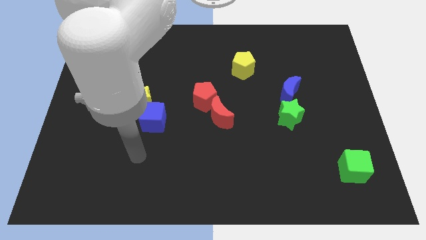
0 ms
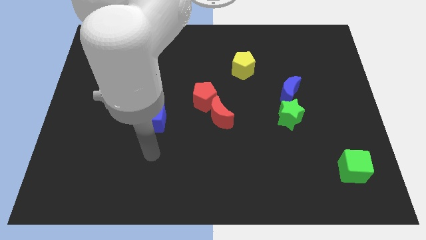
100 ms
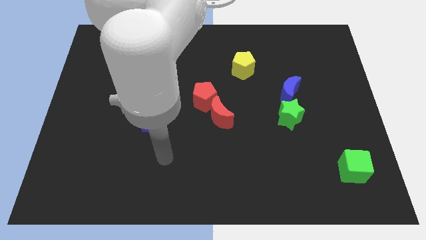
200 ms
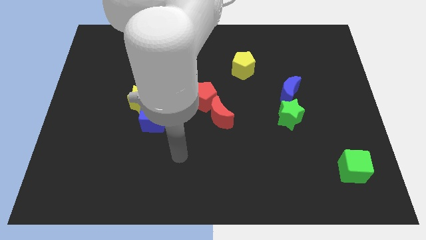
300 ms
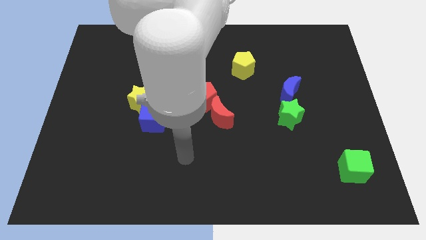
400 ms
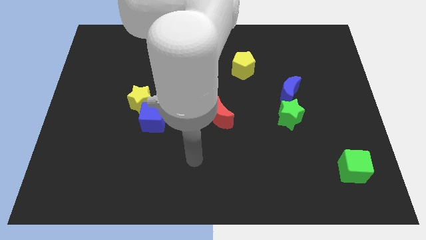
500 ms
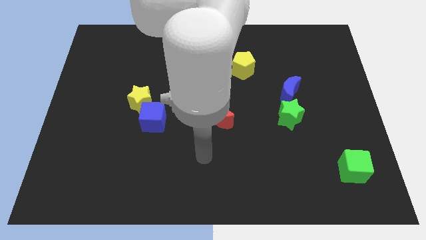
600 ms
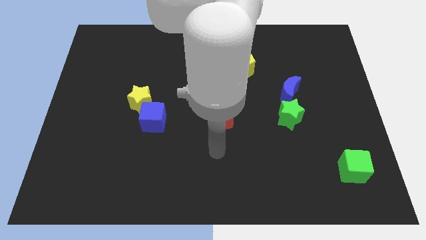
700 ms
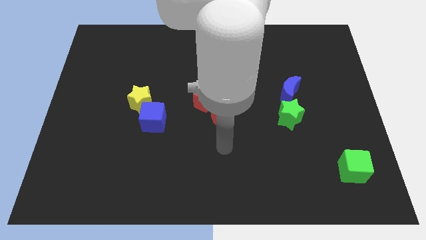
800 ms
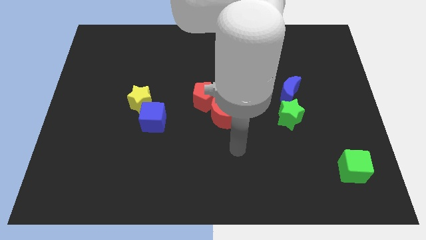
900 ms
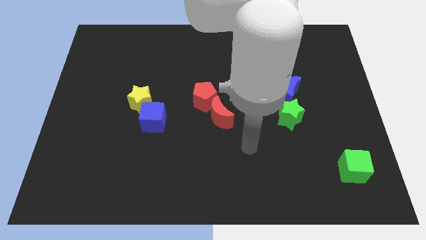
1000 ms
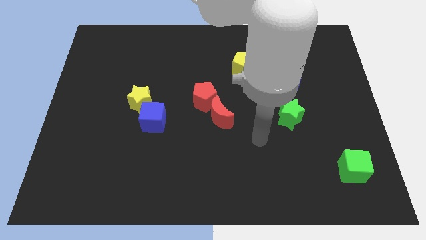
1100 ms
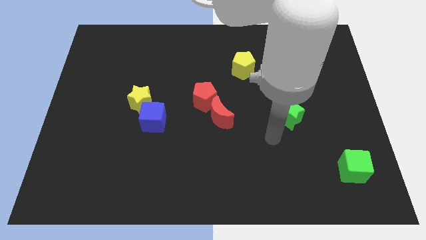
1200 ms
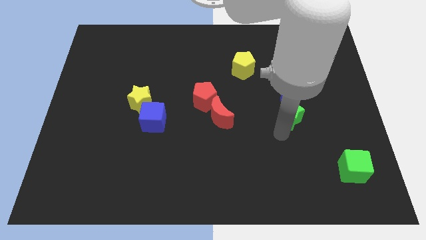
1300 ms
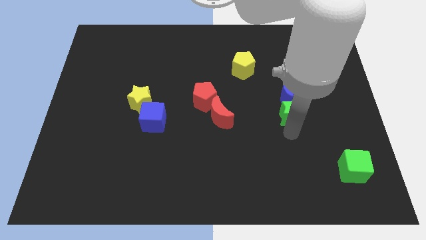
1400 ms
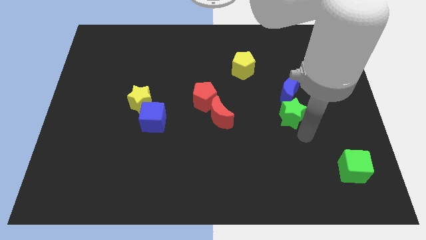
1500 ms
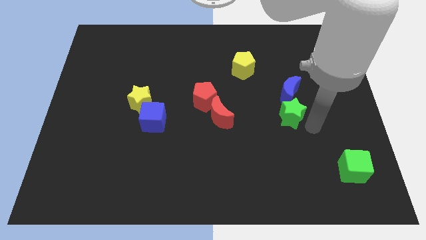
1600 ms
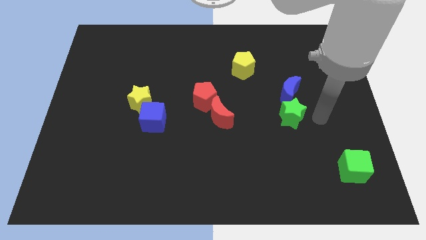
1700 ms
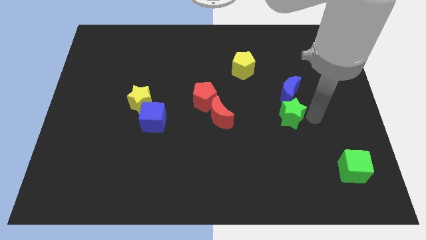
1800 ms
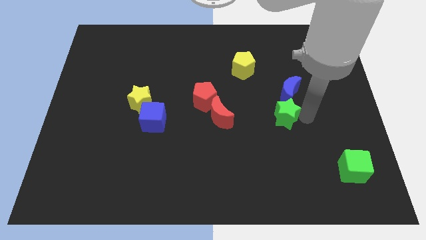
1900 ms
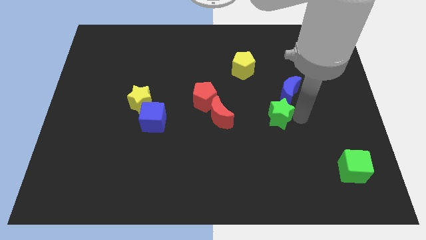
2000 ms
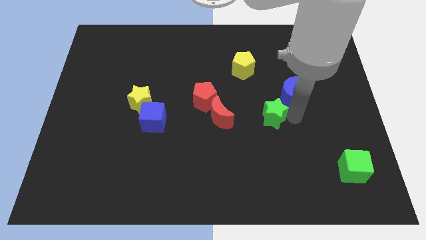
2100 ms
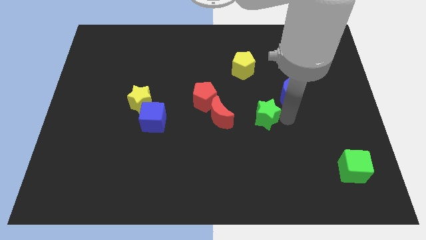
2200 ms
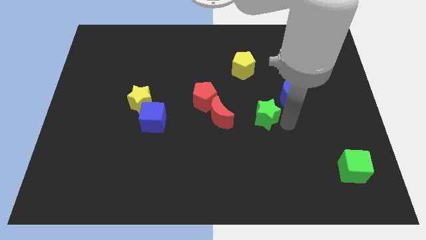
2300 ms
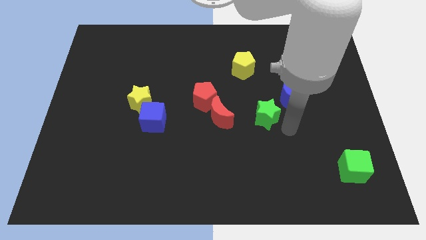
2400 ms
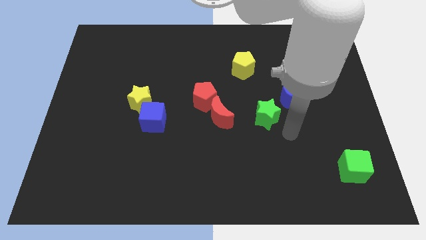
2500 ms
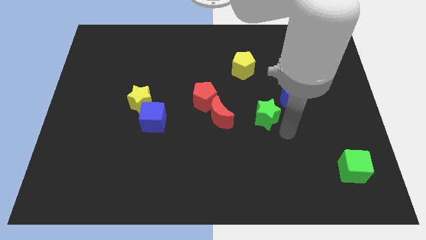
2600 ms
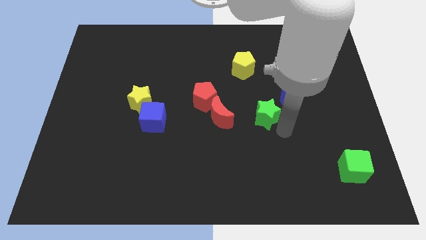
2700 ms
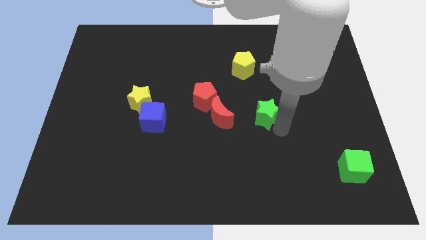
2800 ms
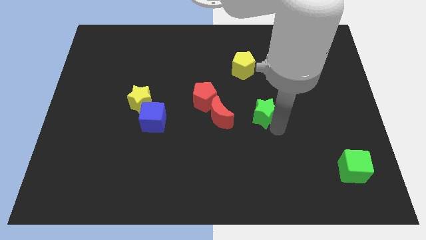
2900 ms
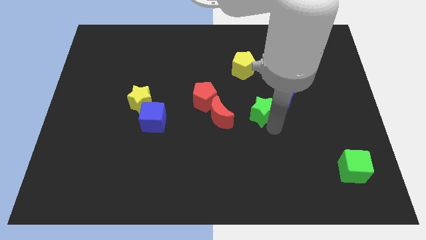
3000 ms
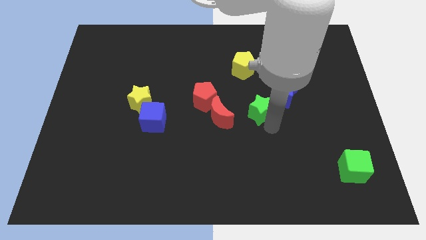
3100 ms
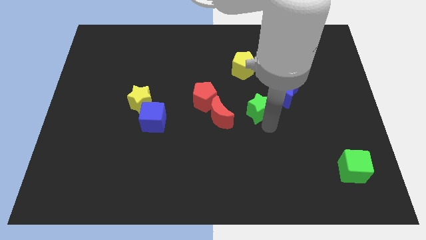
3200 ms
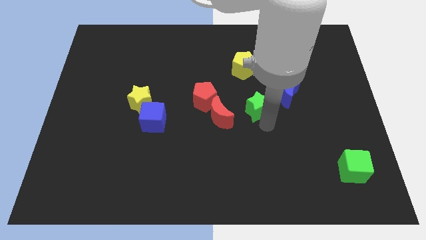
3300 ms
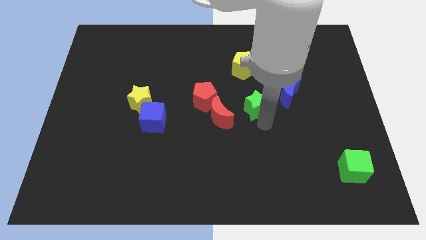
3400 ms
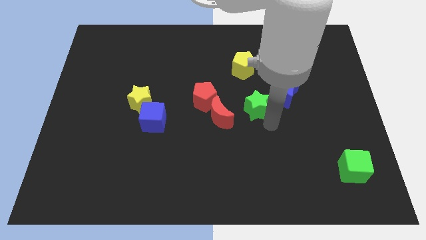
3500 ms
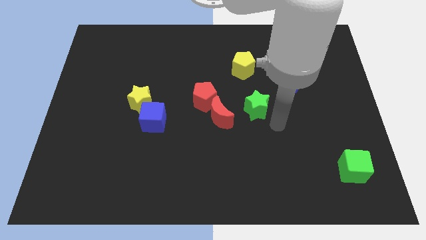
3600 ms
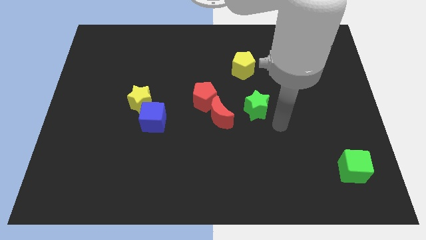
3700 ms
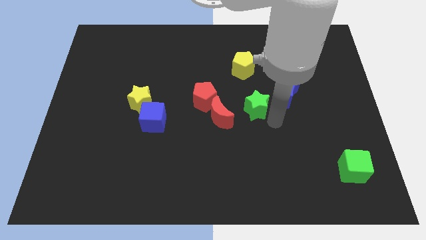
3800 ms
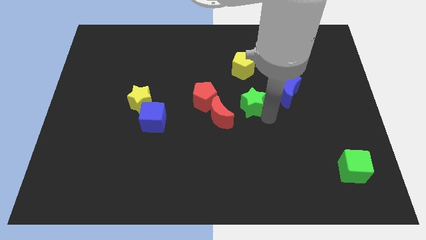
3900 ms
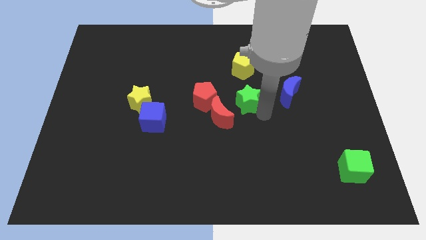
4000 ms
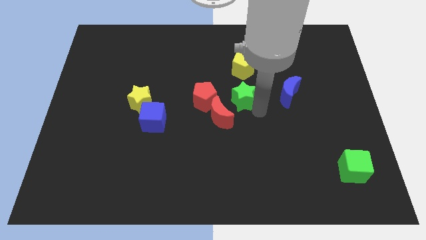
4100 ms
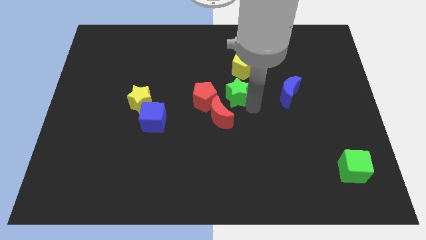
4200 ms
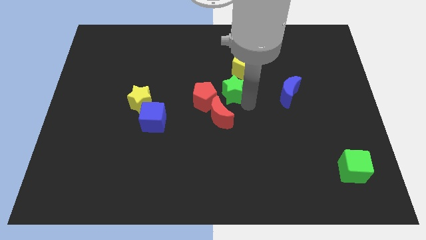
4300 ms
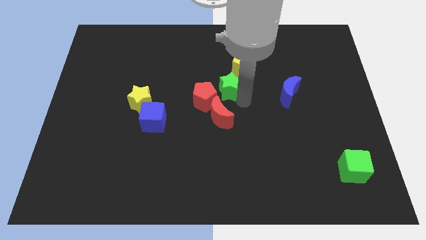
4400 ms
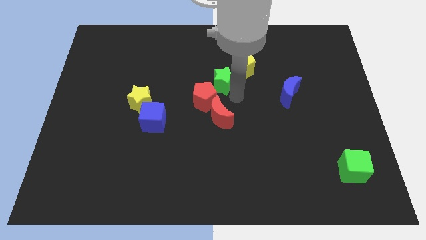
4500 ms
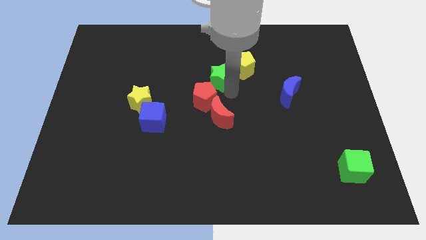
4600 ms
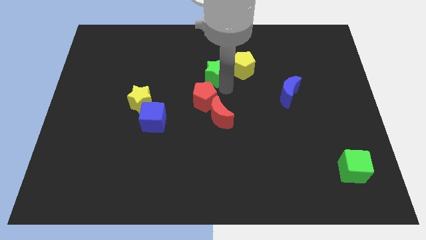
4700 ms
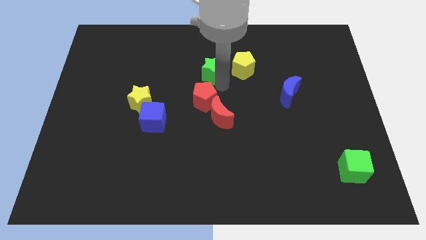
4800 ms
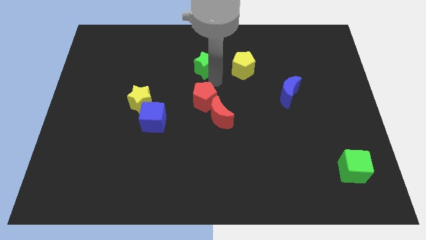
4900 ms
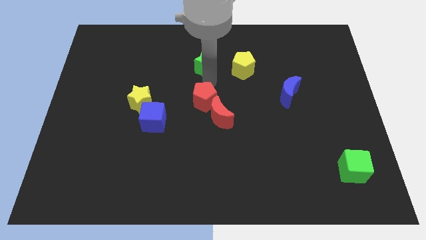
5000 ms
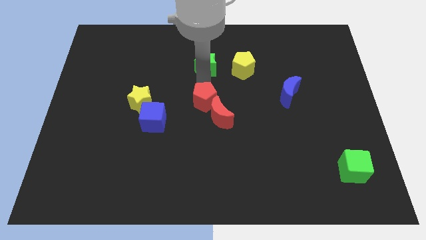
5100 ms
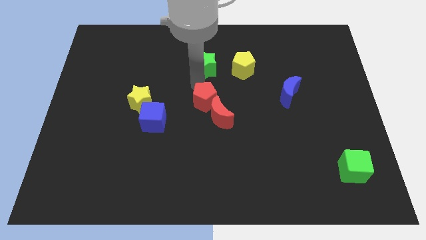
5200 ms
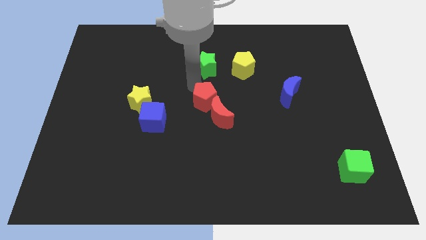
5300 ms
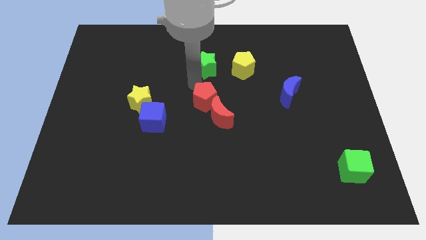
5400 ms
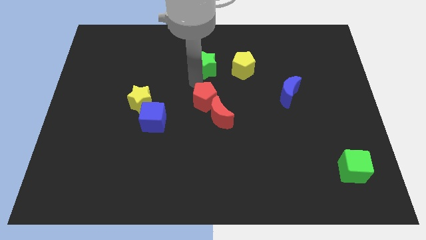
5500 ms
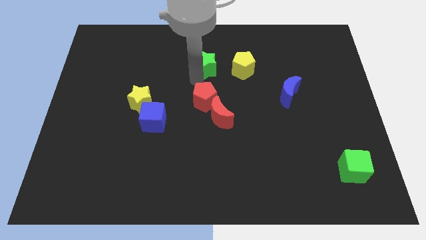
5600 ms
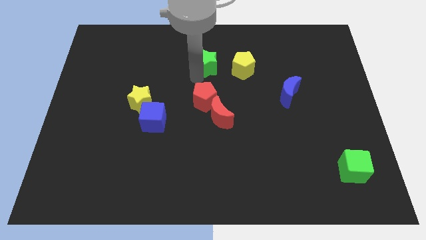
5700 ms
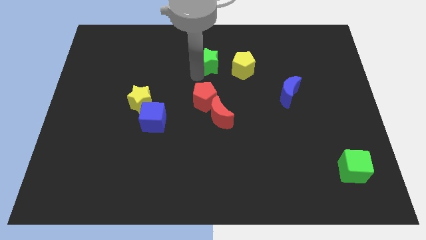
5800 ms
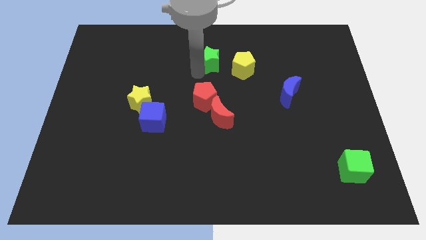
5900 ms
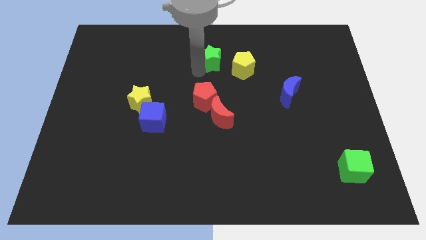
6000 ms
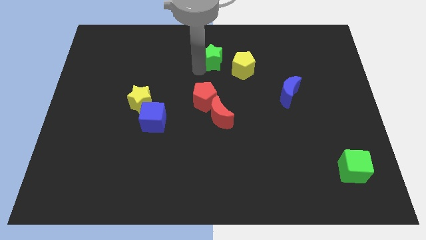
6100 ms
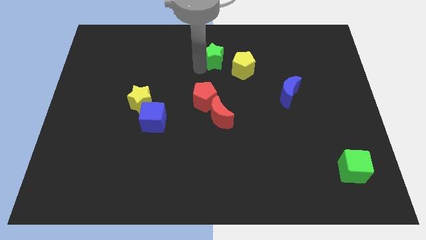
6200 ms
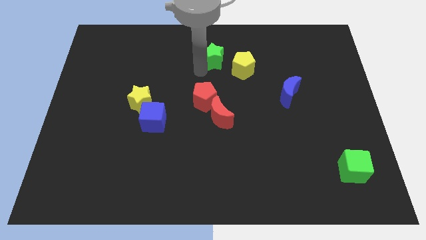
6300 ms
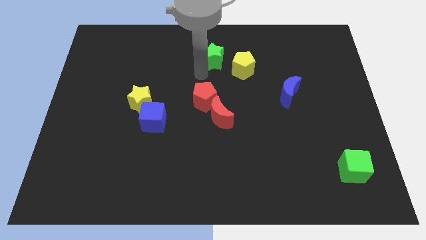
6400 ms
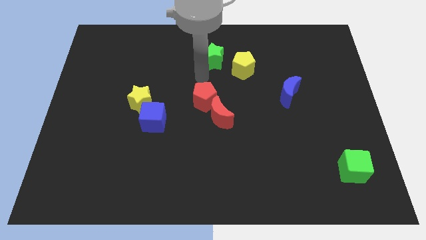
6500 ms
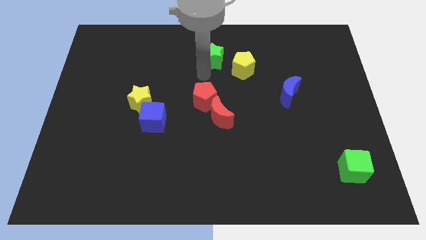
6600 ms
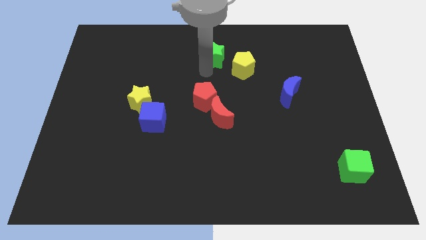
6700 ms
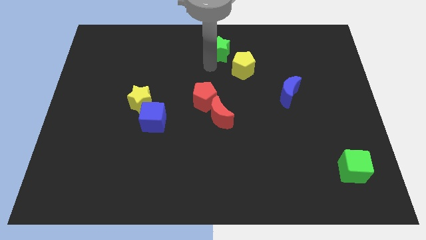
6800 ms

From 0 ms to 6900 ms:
push the green star to the towards your base
